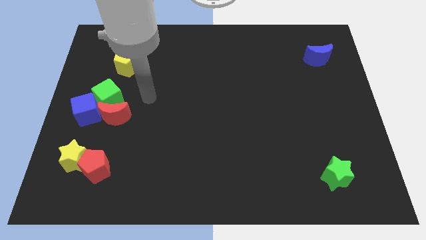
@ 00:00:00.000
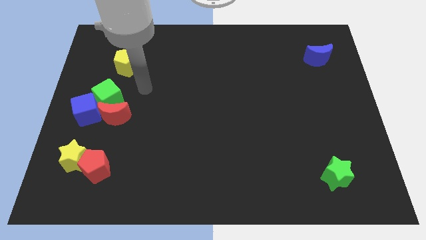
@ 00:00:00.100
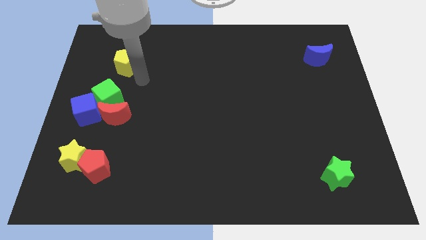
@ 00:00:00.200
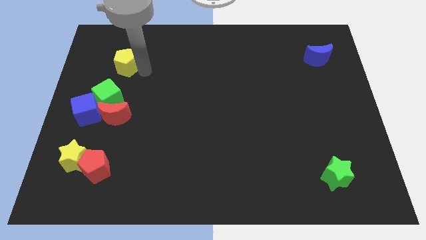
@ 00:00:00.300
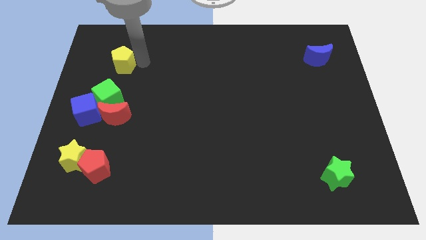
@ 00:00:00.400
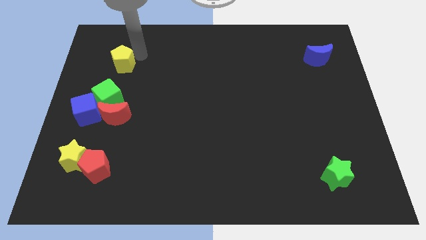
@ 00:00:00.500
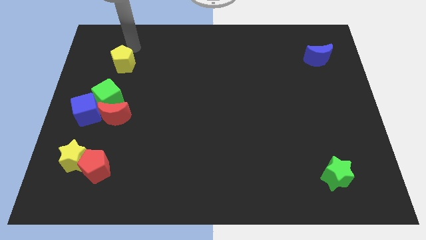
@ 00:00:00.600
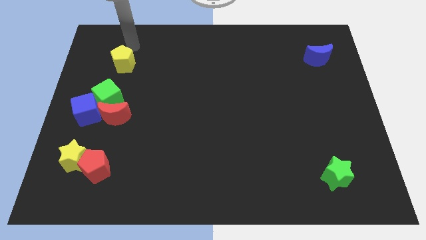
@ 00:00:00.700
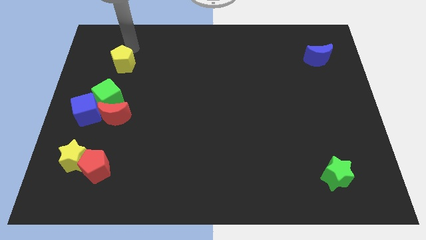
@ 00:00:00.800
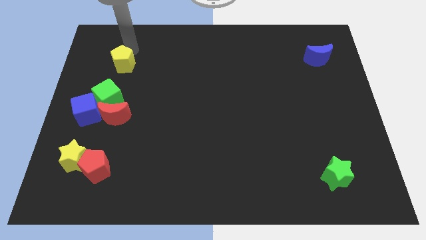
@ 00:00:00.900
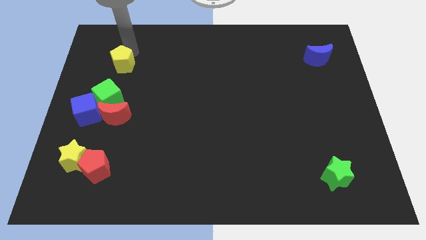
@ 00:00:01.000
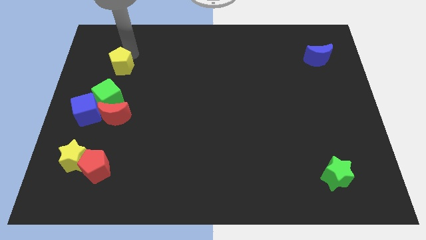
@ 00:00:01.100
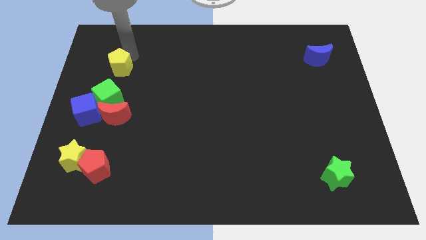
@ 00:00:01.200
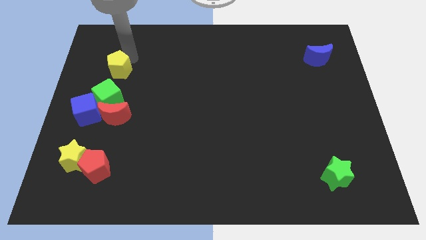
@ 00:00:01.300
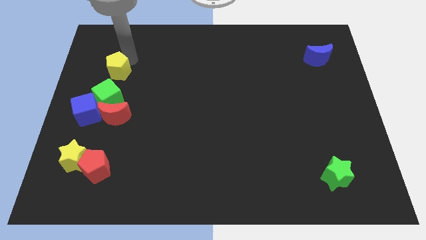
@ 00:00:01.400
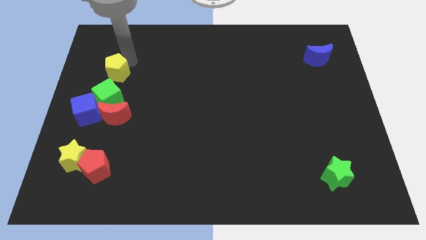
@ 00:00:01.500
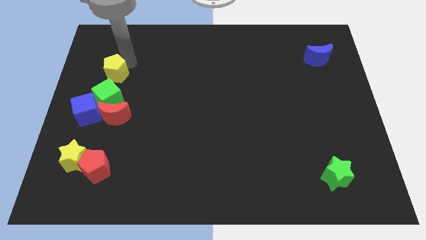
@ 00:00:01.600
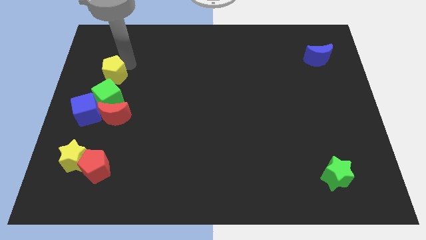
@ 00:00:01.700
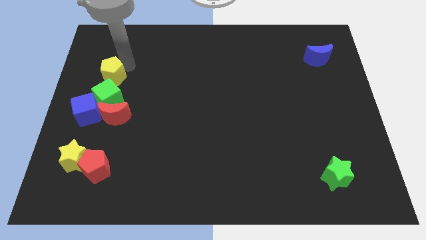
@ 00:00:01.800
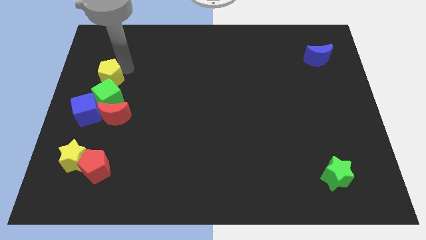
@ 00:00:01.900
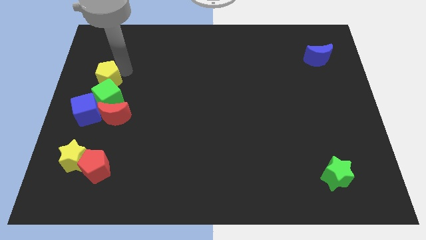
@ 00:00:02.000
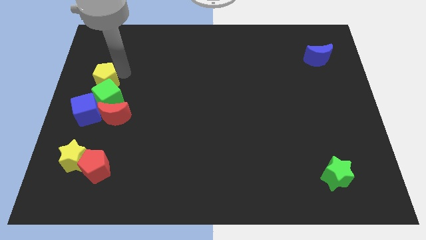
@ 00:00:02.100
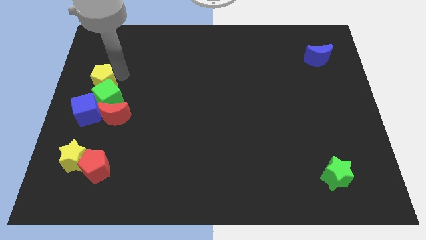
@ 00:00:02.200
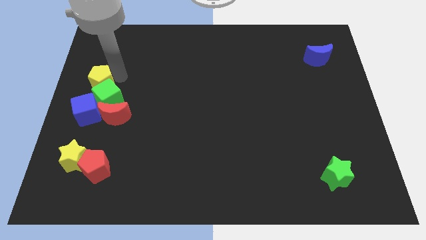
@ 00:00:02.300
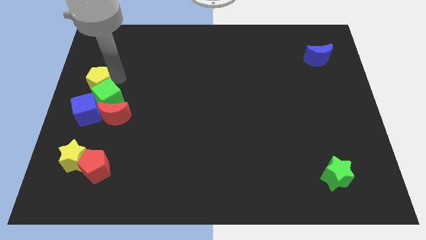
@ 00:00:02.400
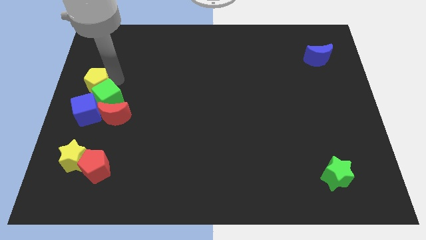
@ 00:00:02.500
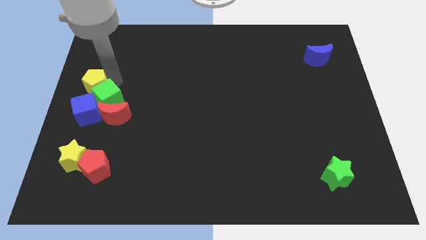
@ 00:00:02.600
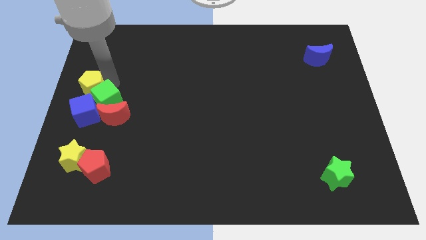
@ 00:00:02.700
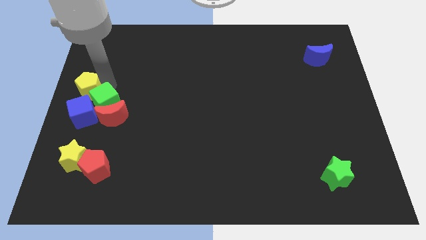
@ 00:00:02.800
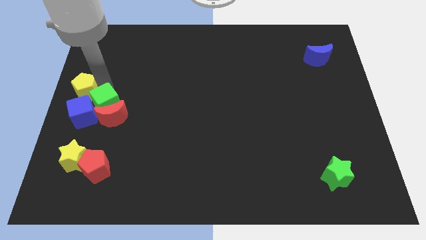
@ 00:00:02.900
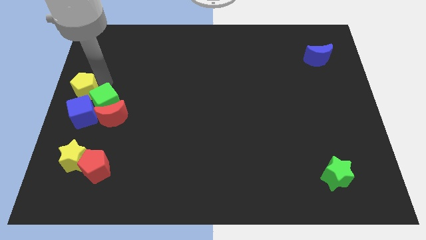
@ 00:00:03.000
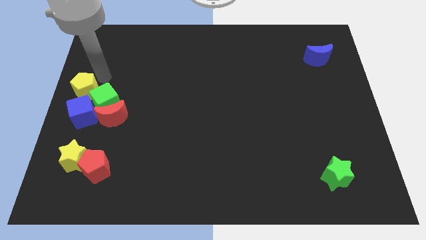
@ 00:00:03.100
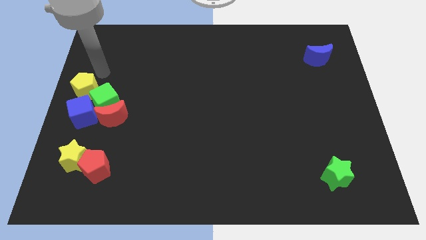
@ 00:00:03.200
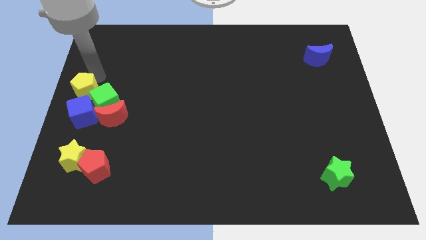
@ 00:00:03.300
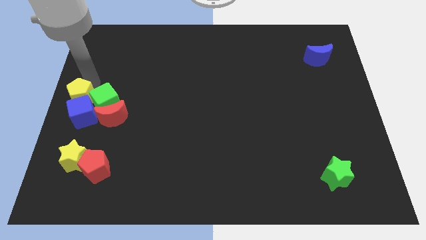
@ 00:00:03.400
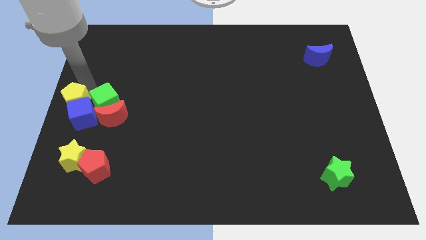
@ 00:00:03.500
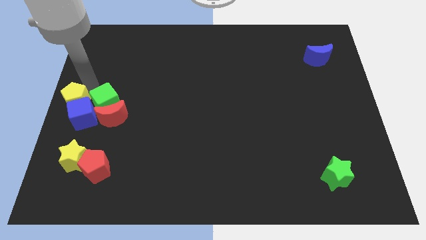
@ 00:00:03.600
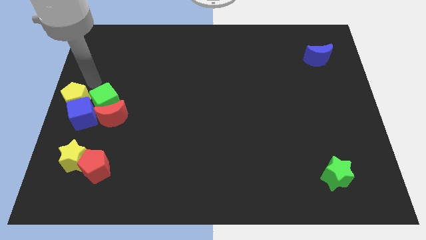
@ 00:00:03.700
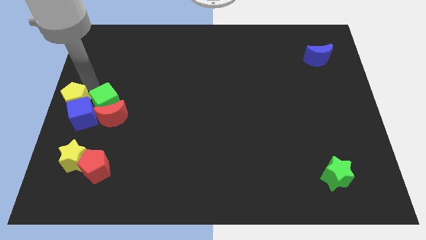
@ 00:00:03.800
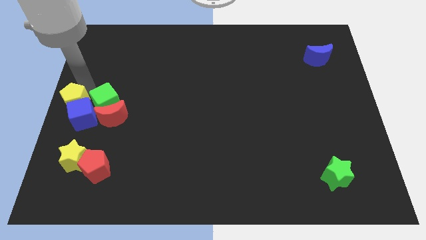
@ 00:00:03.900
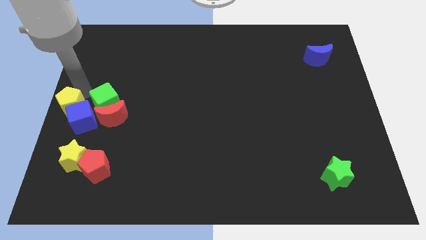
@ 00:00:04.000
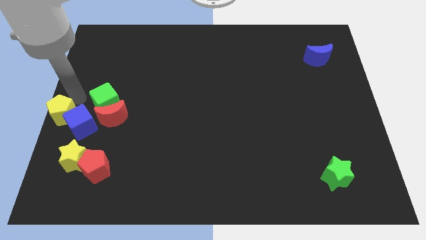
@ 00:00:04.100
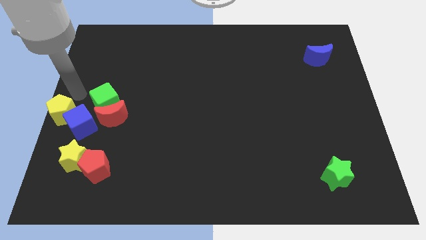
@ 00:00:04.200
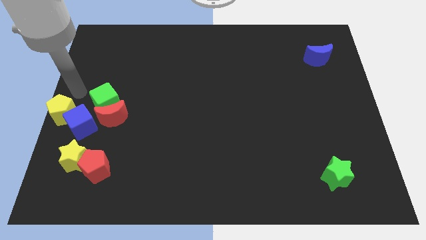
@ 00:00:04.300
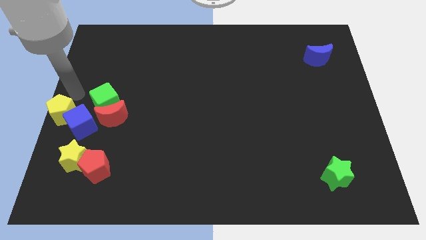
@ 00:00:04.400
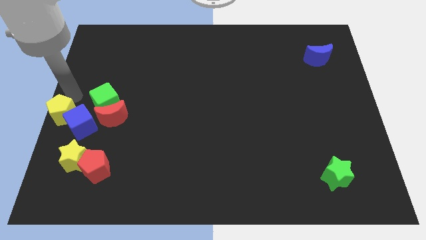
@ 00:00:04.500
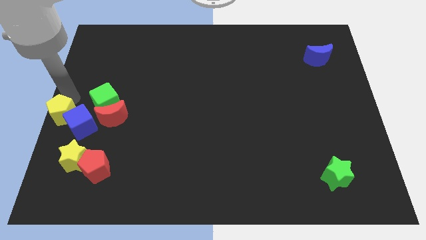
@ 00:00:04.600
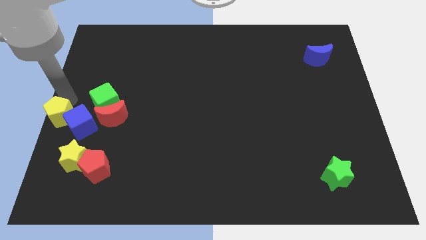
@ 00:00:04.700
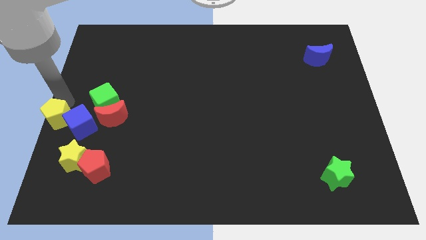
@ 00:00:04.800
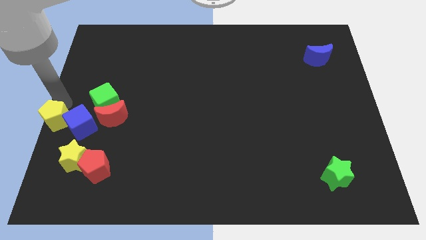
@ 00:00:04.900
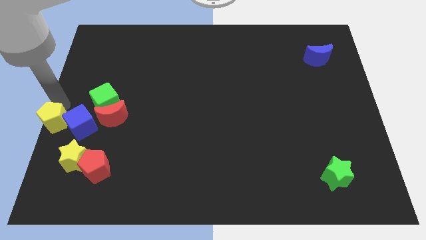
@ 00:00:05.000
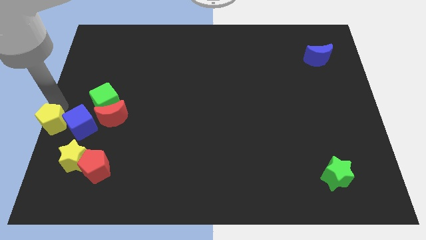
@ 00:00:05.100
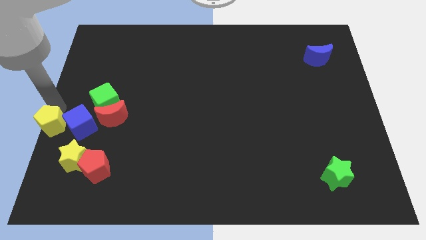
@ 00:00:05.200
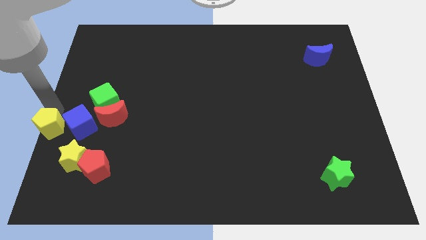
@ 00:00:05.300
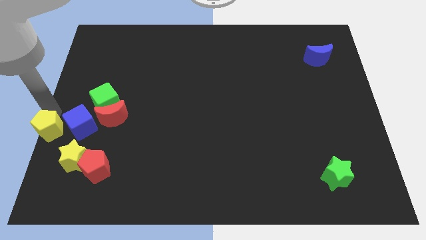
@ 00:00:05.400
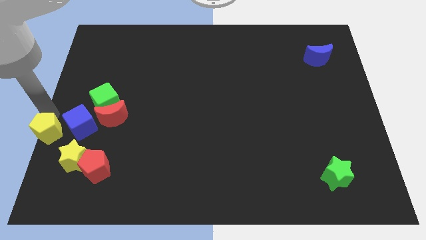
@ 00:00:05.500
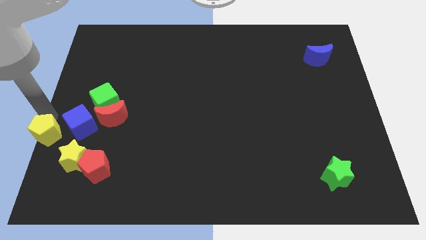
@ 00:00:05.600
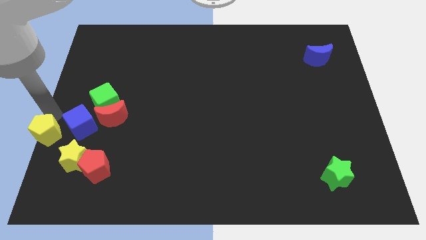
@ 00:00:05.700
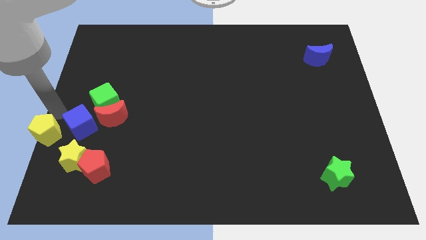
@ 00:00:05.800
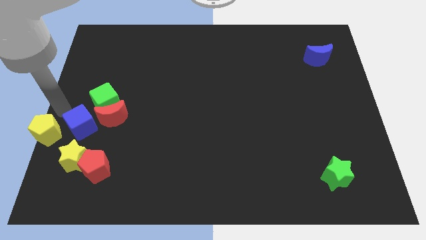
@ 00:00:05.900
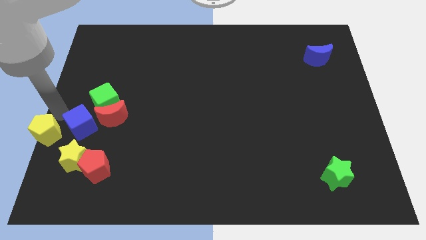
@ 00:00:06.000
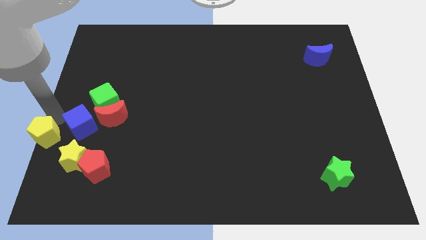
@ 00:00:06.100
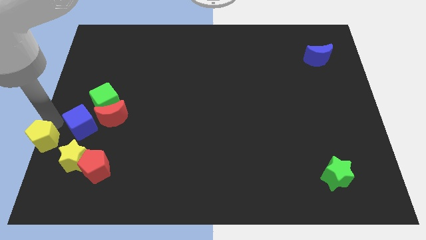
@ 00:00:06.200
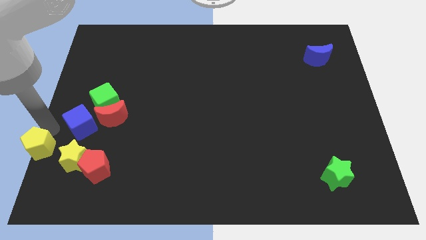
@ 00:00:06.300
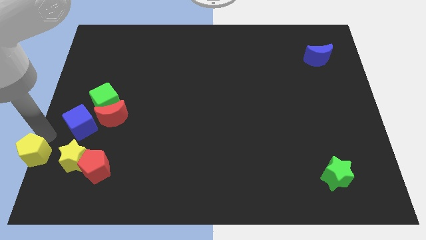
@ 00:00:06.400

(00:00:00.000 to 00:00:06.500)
put the yellow pentagon to the bottom left corner
